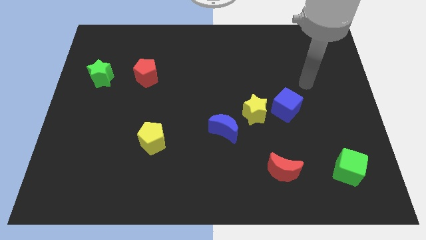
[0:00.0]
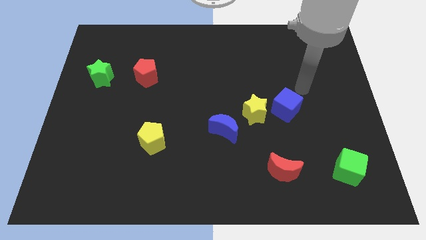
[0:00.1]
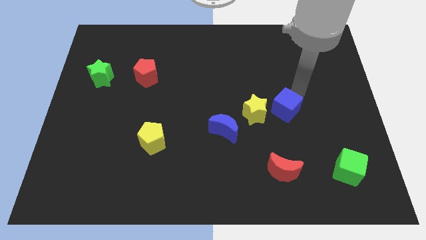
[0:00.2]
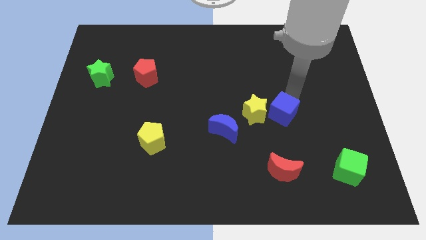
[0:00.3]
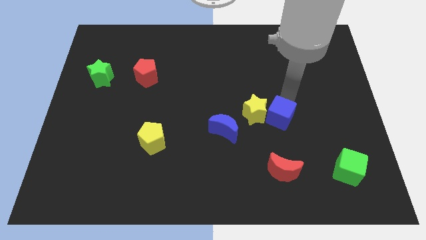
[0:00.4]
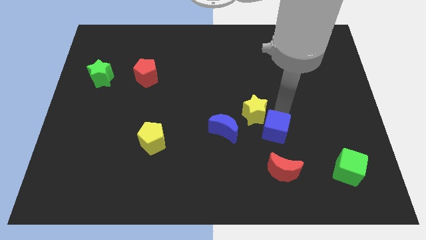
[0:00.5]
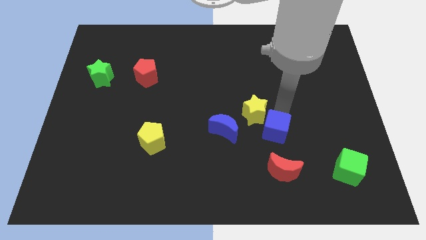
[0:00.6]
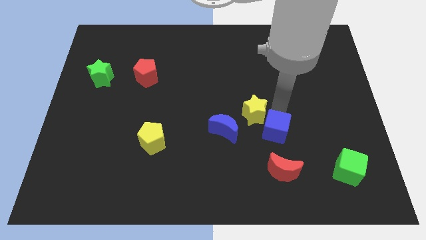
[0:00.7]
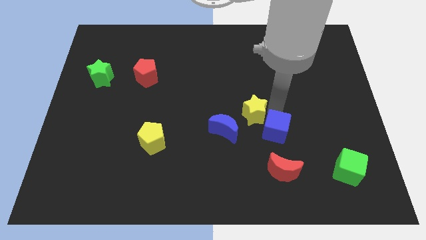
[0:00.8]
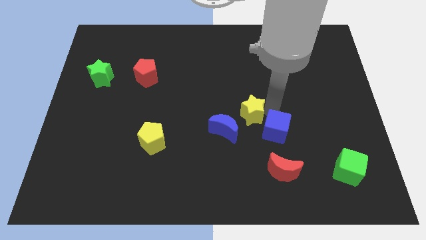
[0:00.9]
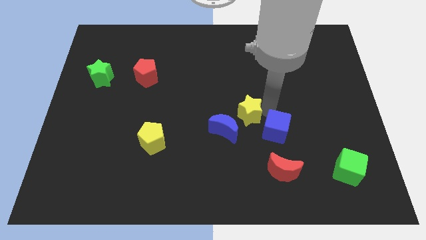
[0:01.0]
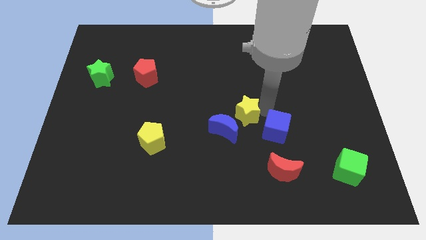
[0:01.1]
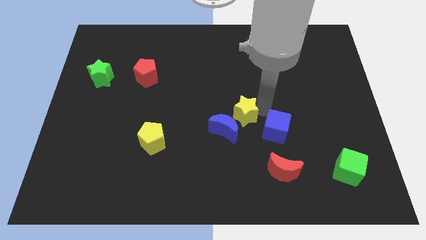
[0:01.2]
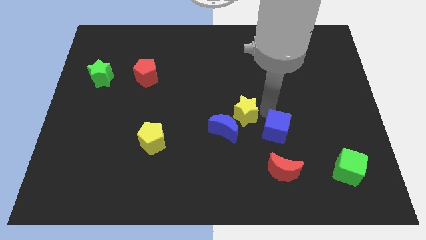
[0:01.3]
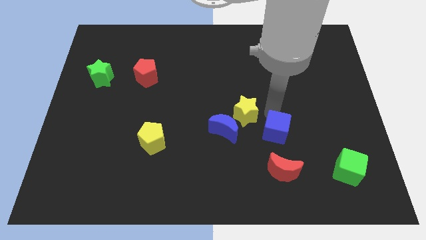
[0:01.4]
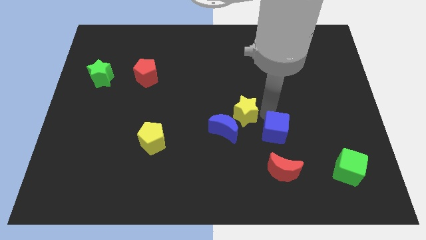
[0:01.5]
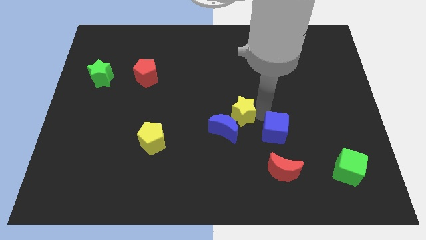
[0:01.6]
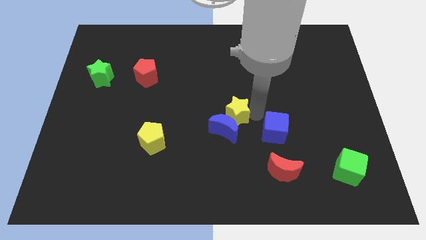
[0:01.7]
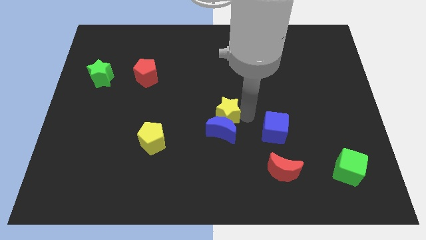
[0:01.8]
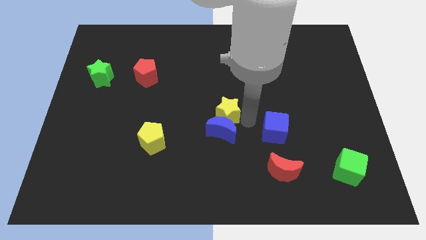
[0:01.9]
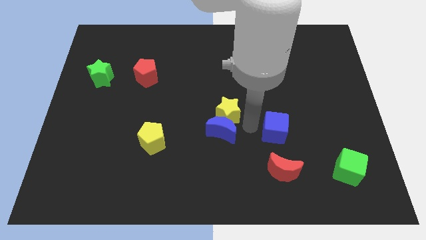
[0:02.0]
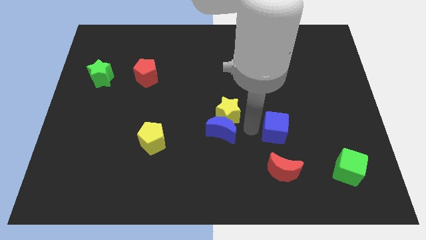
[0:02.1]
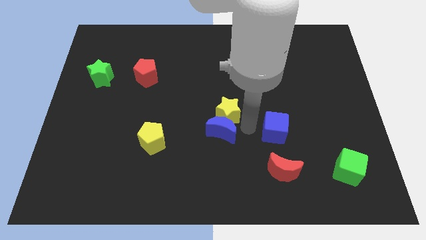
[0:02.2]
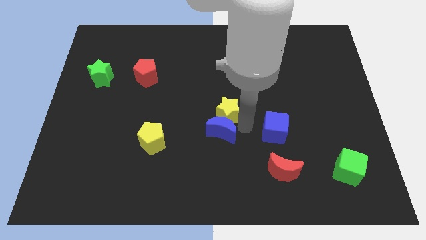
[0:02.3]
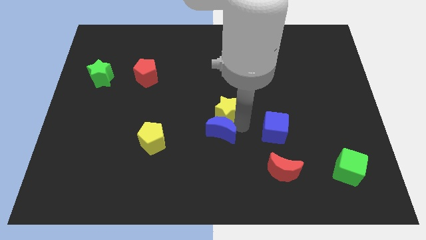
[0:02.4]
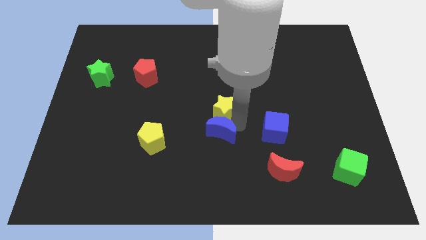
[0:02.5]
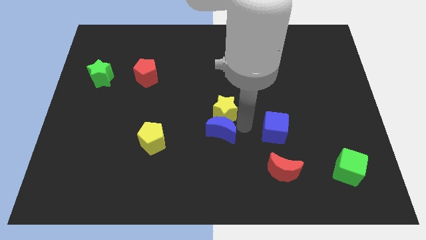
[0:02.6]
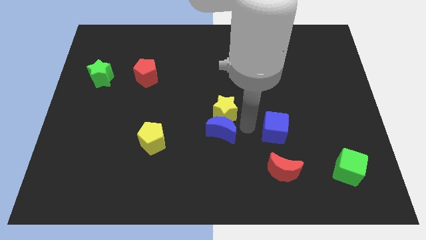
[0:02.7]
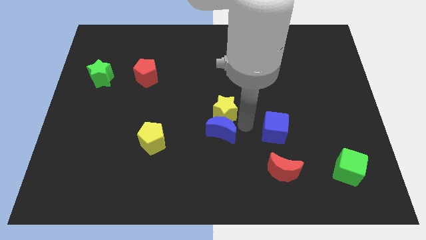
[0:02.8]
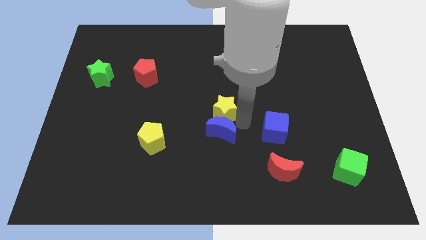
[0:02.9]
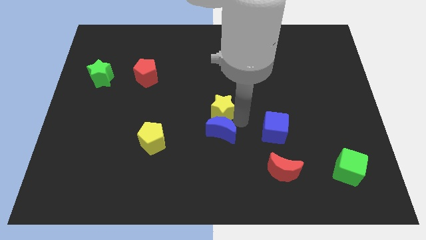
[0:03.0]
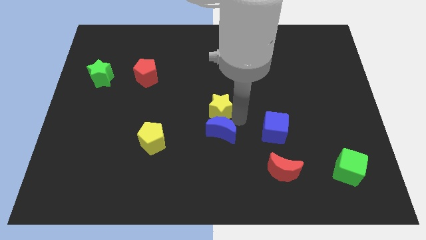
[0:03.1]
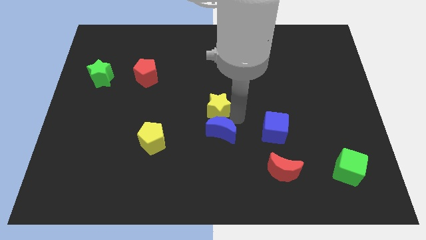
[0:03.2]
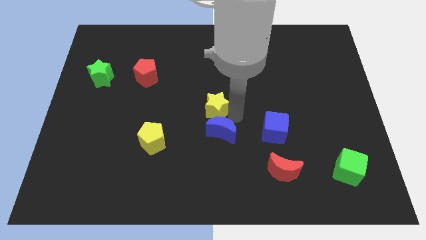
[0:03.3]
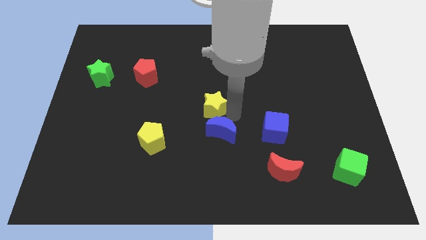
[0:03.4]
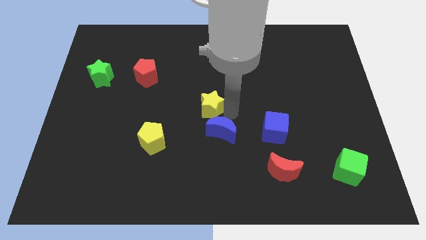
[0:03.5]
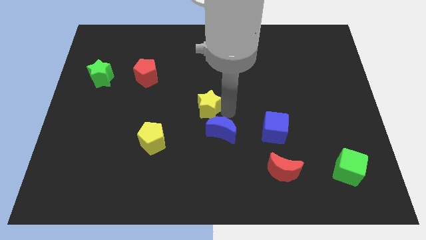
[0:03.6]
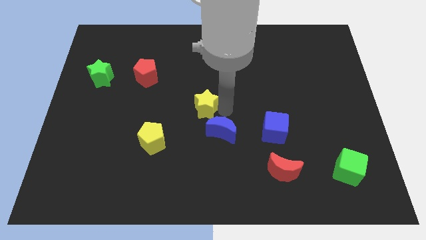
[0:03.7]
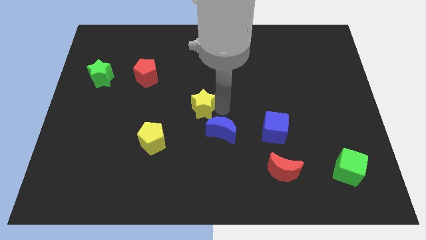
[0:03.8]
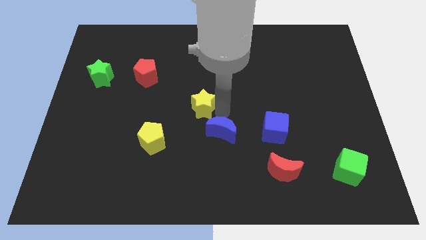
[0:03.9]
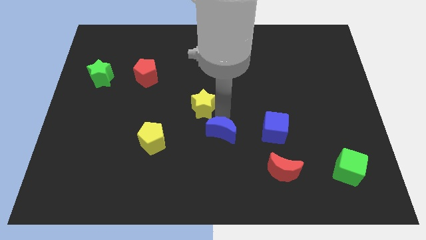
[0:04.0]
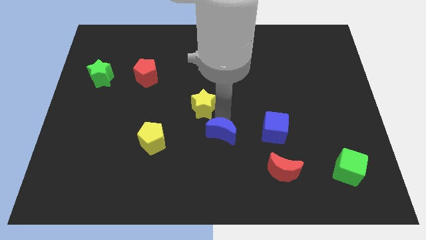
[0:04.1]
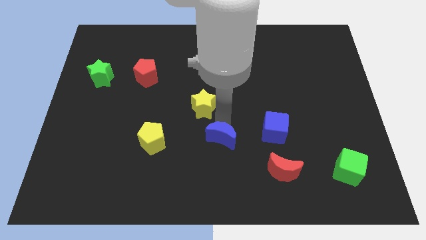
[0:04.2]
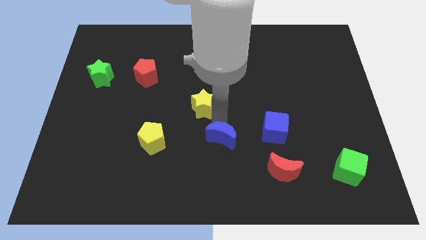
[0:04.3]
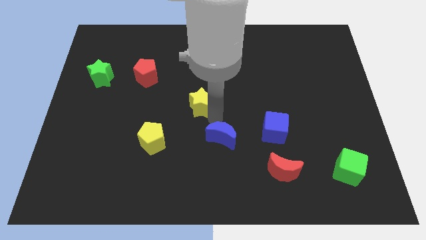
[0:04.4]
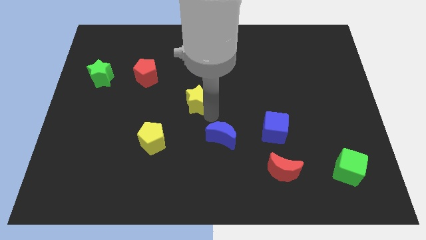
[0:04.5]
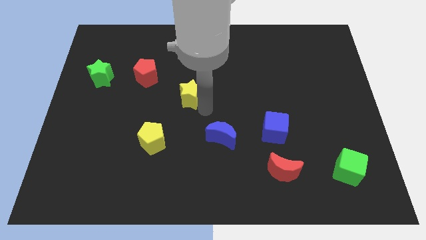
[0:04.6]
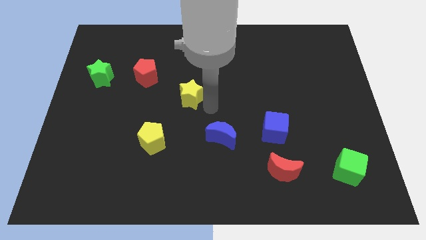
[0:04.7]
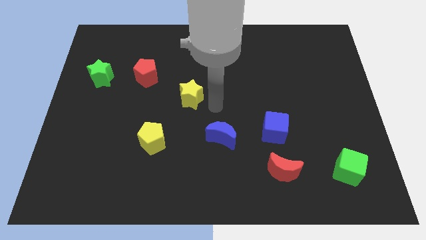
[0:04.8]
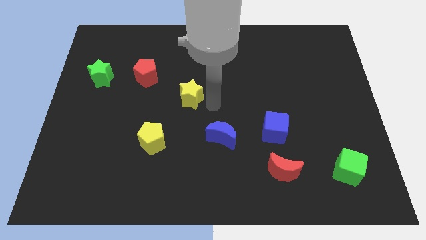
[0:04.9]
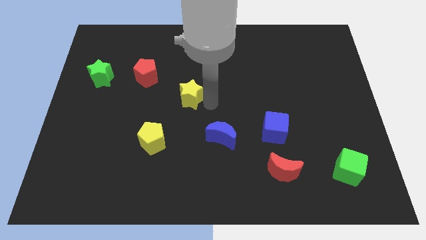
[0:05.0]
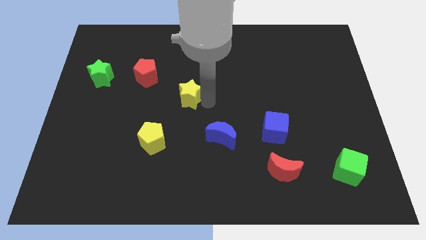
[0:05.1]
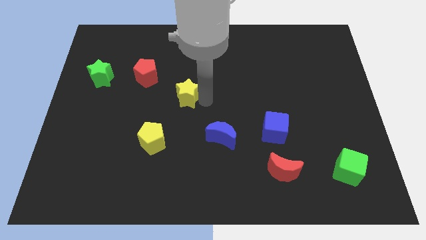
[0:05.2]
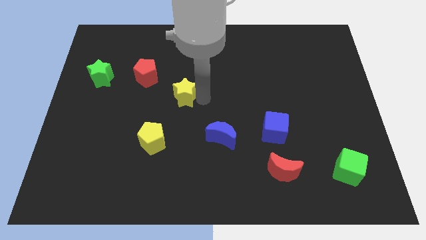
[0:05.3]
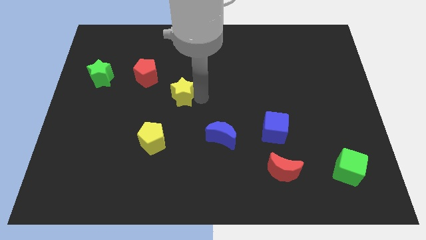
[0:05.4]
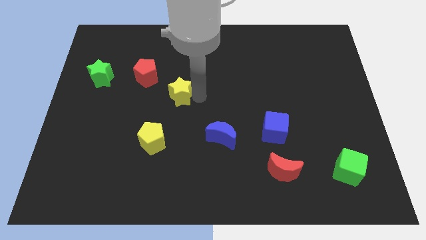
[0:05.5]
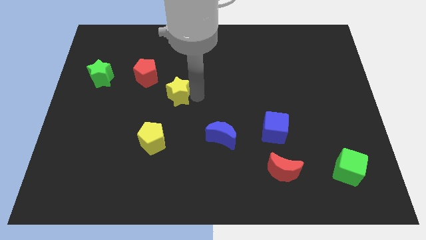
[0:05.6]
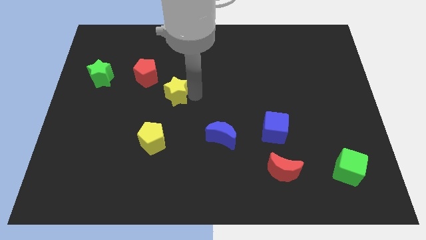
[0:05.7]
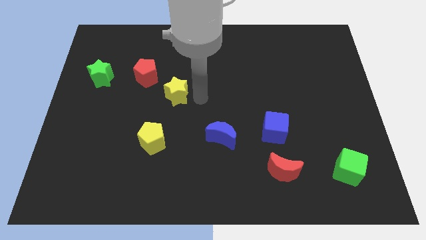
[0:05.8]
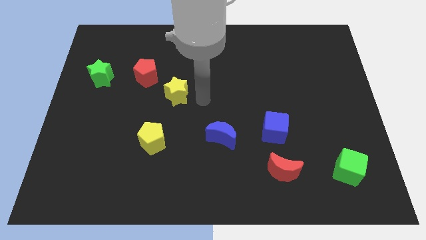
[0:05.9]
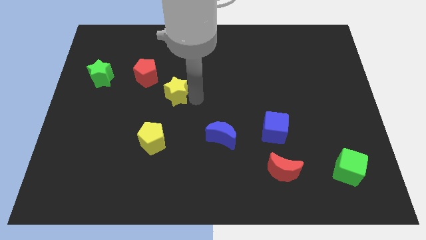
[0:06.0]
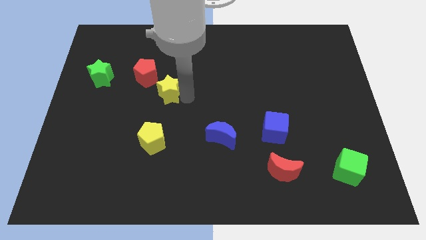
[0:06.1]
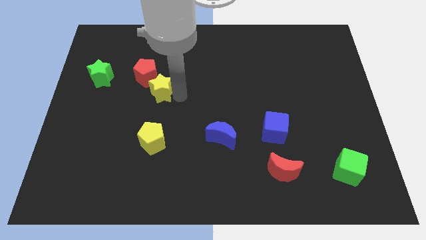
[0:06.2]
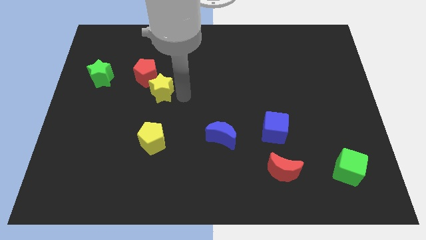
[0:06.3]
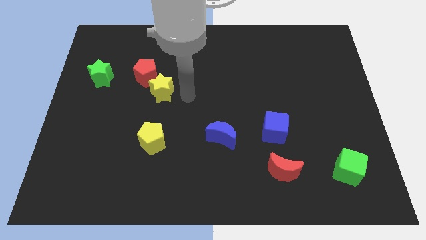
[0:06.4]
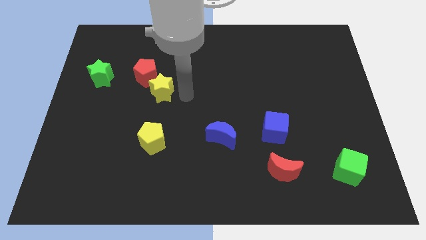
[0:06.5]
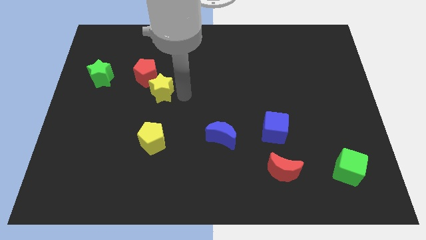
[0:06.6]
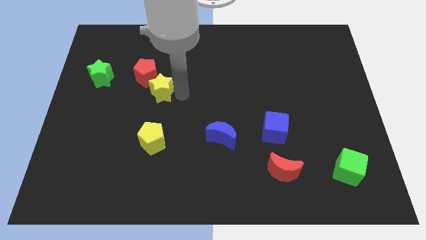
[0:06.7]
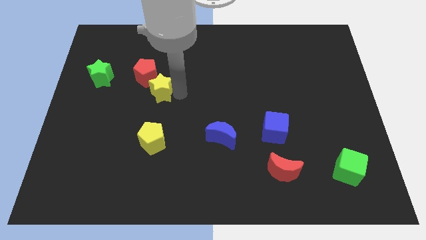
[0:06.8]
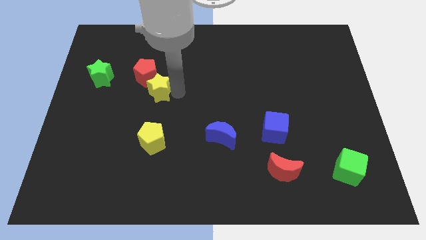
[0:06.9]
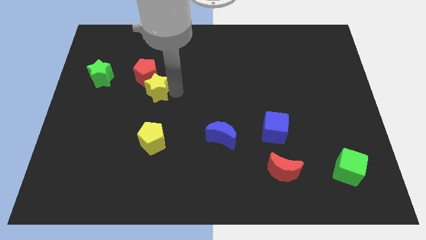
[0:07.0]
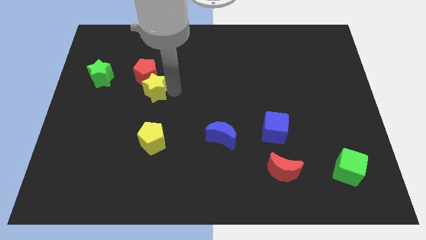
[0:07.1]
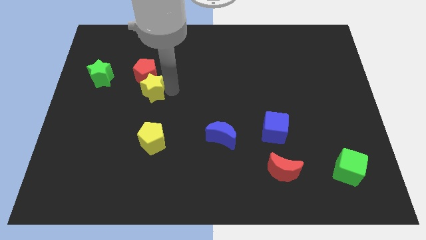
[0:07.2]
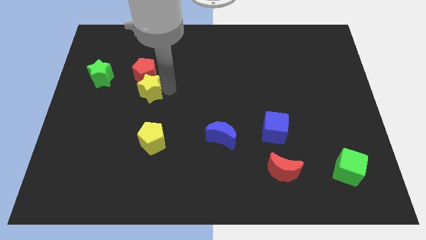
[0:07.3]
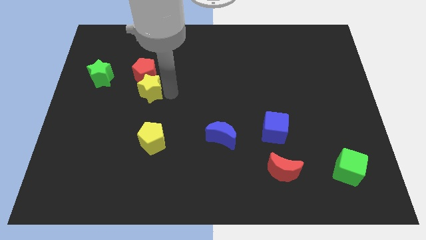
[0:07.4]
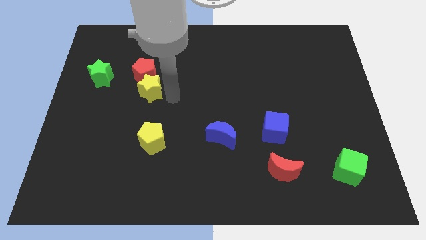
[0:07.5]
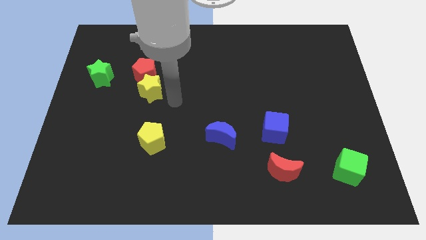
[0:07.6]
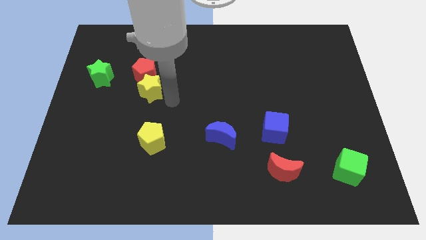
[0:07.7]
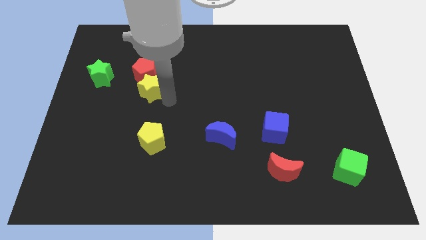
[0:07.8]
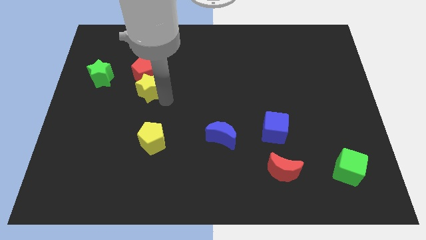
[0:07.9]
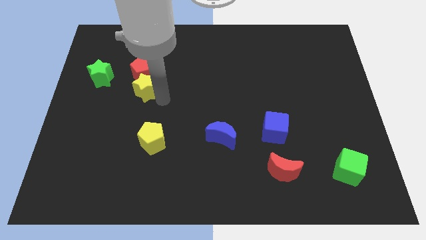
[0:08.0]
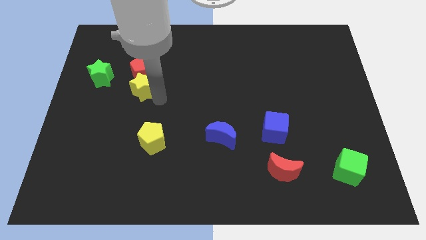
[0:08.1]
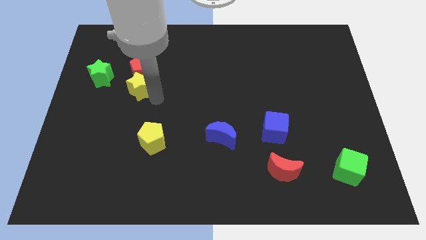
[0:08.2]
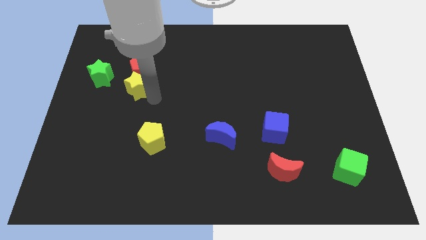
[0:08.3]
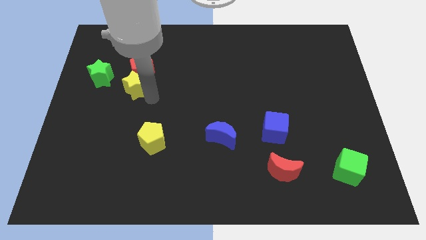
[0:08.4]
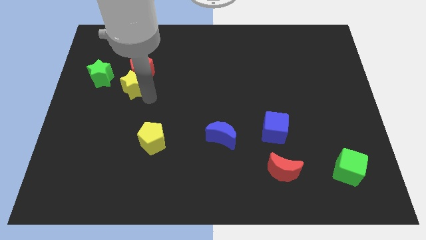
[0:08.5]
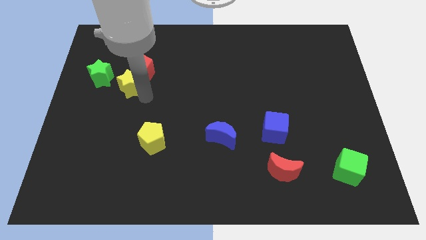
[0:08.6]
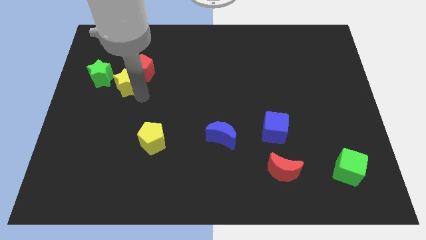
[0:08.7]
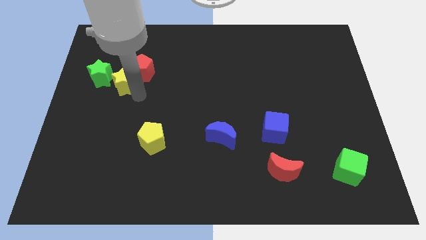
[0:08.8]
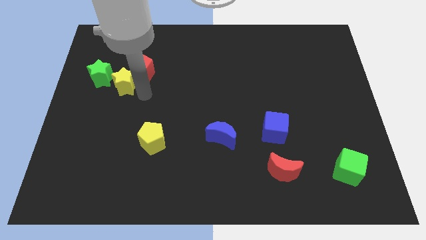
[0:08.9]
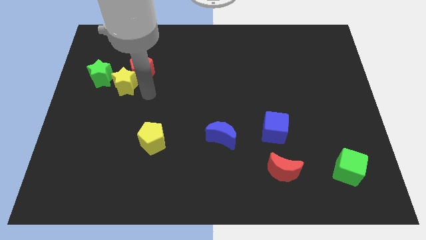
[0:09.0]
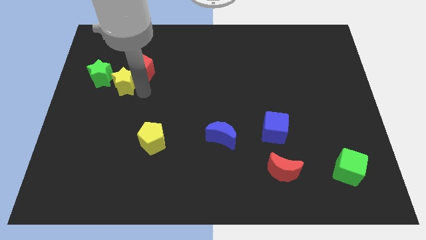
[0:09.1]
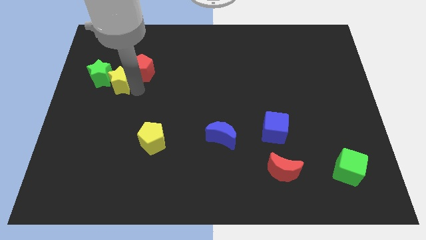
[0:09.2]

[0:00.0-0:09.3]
put the yellow star close to the green star
